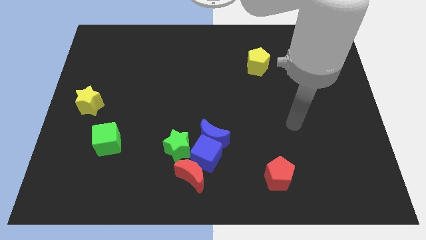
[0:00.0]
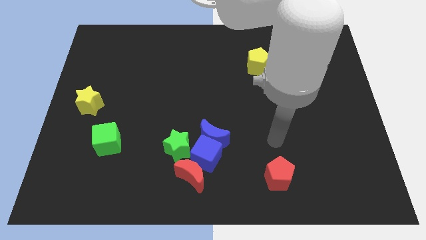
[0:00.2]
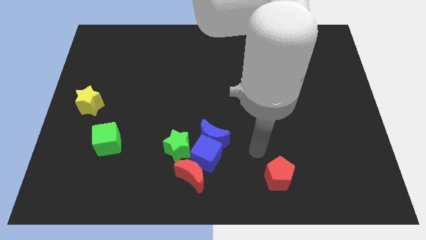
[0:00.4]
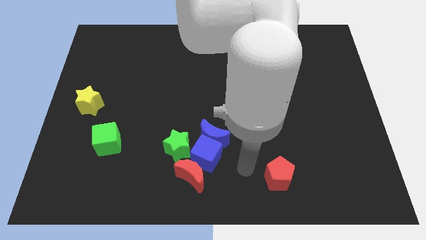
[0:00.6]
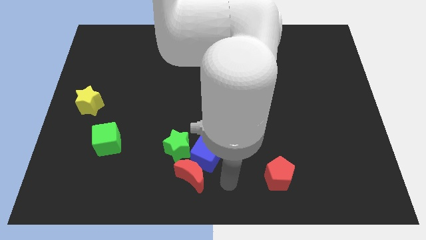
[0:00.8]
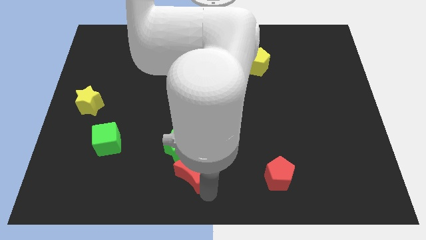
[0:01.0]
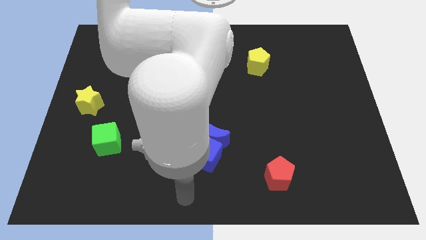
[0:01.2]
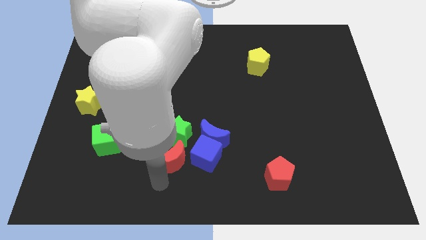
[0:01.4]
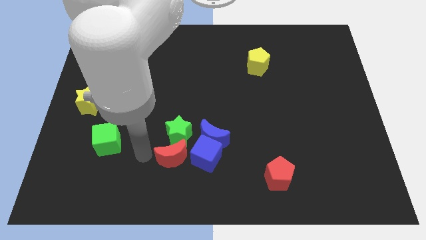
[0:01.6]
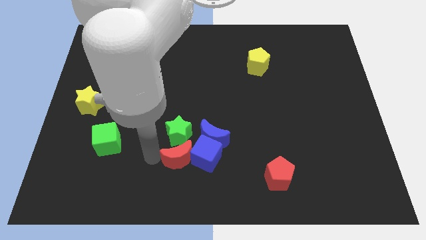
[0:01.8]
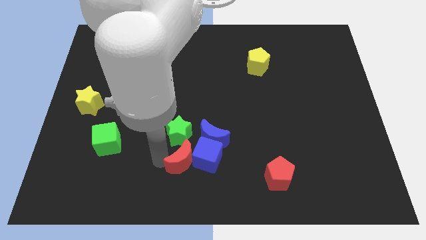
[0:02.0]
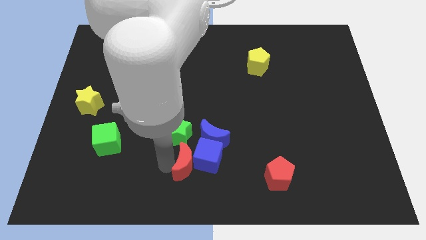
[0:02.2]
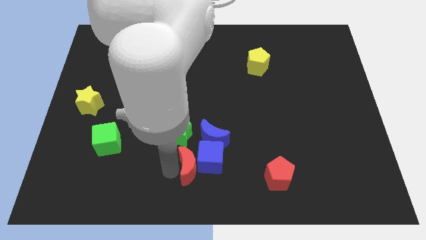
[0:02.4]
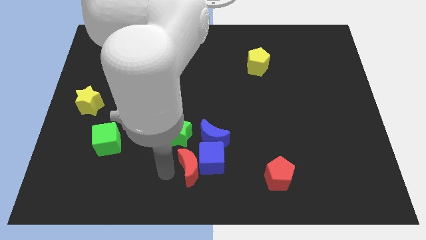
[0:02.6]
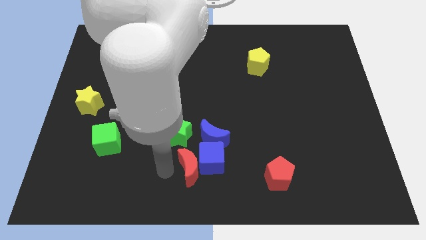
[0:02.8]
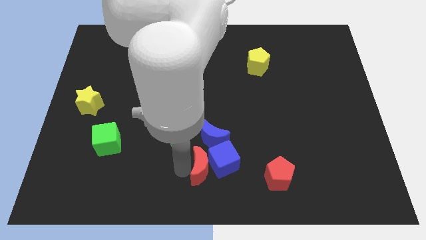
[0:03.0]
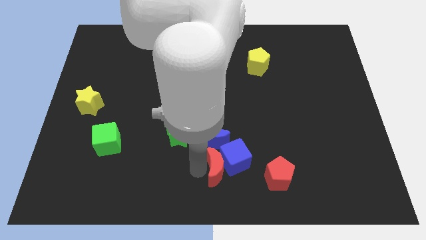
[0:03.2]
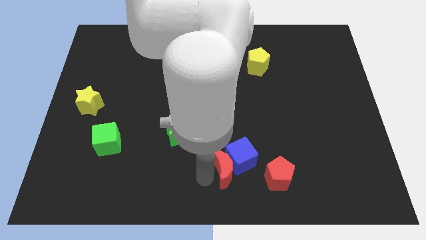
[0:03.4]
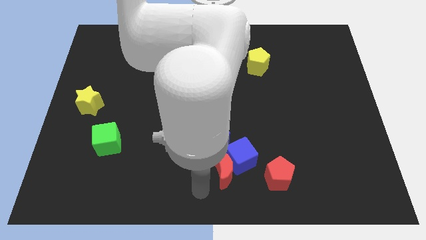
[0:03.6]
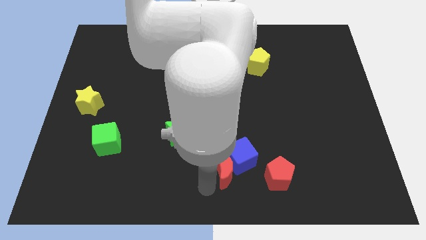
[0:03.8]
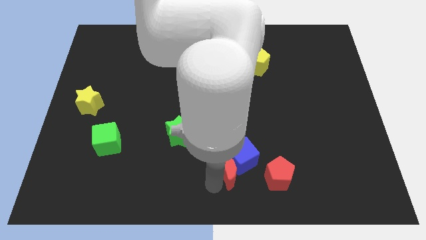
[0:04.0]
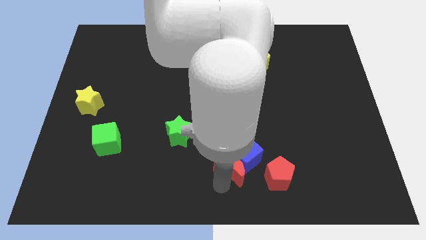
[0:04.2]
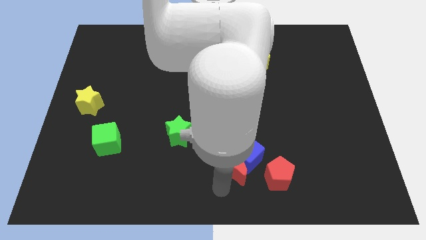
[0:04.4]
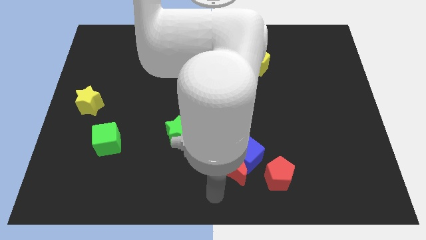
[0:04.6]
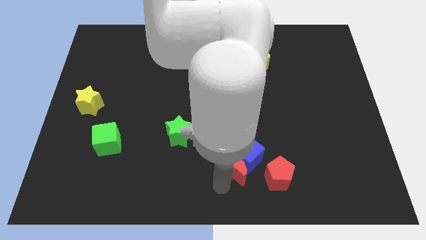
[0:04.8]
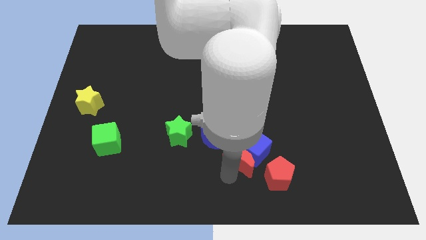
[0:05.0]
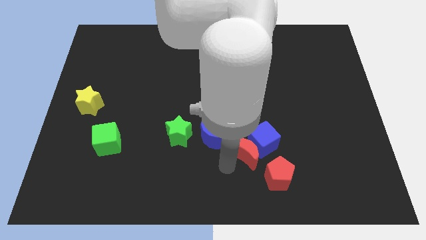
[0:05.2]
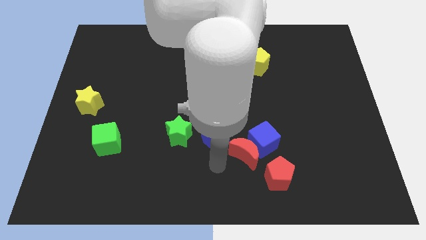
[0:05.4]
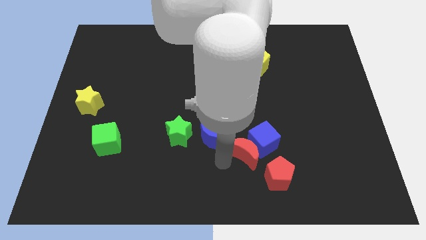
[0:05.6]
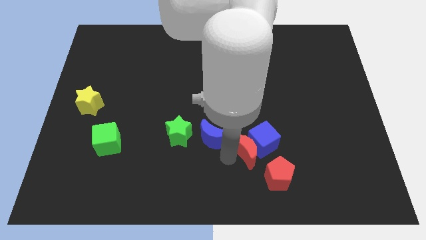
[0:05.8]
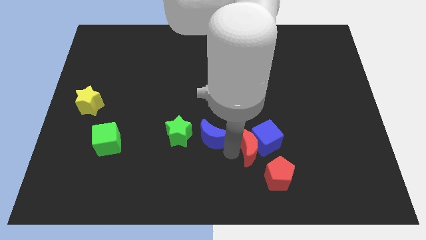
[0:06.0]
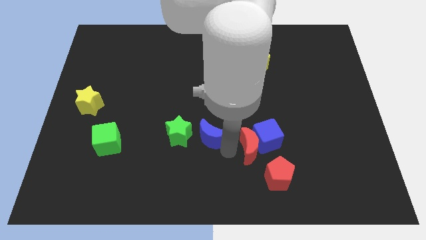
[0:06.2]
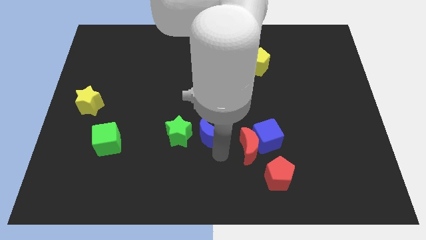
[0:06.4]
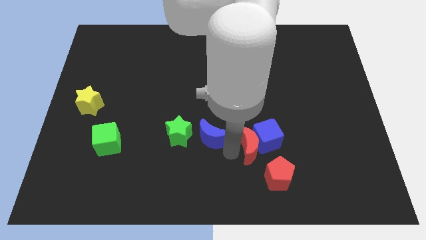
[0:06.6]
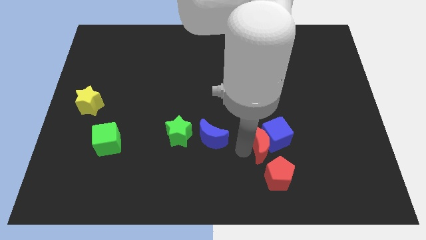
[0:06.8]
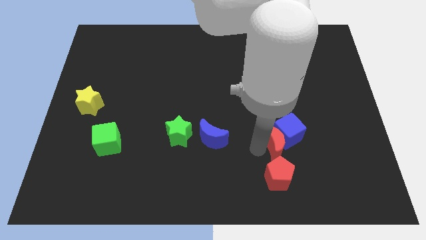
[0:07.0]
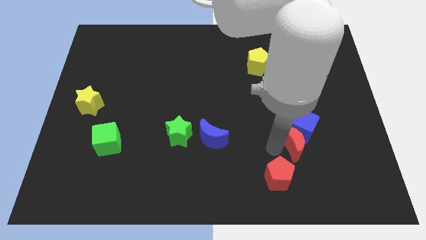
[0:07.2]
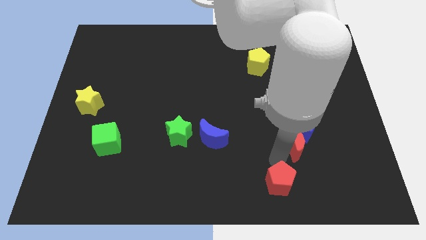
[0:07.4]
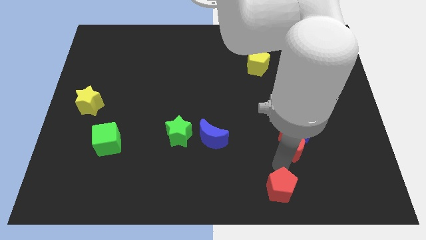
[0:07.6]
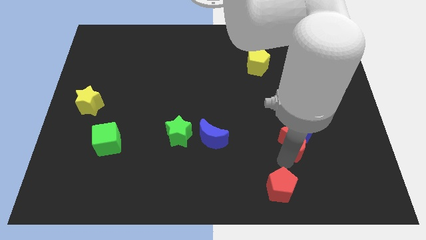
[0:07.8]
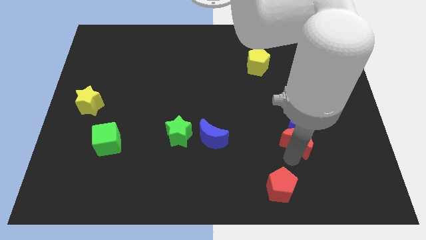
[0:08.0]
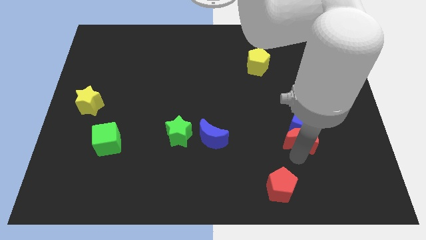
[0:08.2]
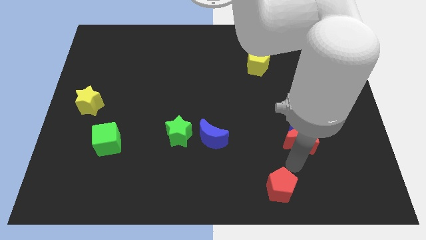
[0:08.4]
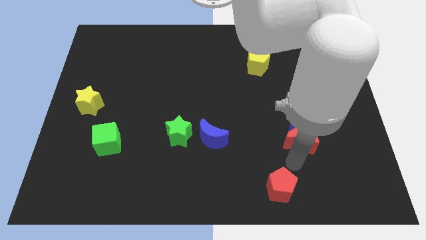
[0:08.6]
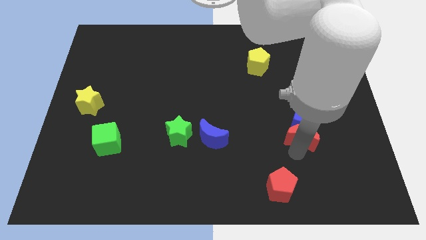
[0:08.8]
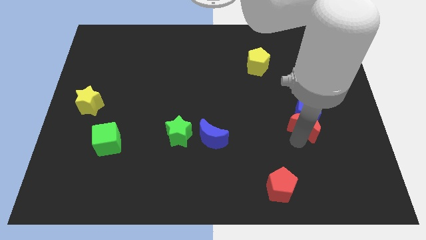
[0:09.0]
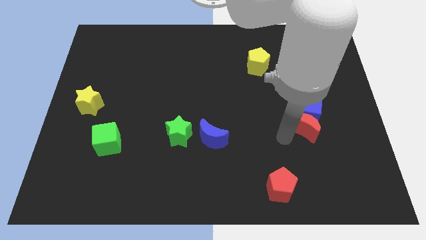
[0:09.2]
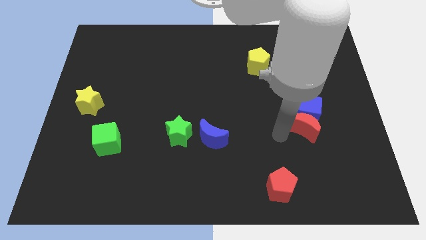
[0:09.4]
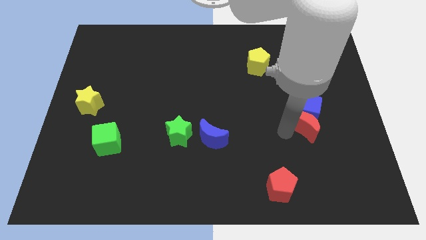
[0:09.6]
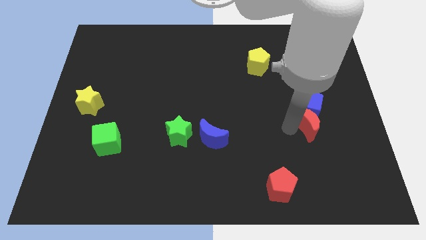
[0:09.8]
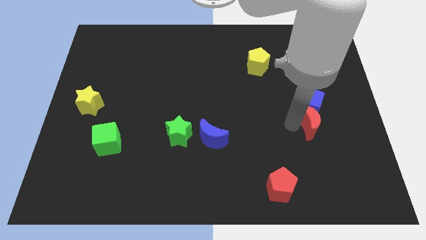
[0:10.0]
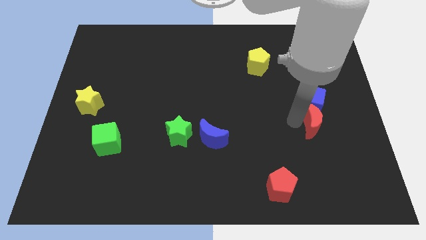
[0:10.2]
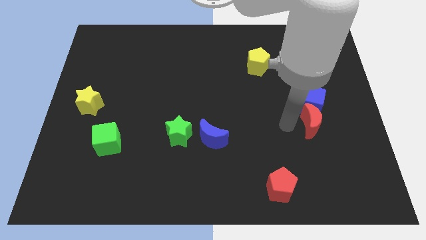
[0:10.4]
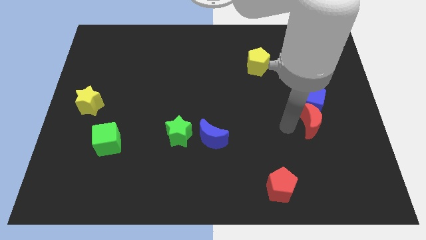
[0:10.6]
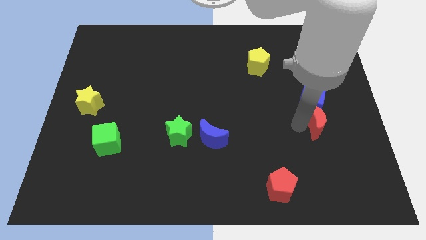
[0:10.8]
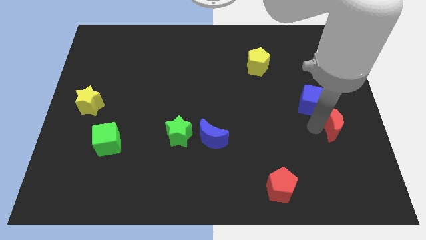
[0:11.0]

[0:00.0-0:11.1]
push the red moon to the right side

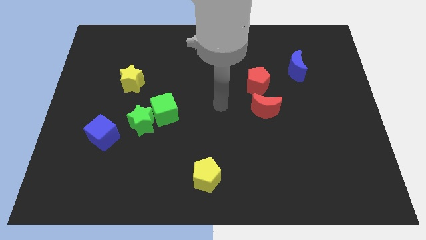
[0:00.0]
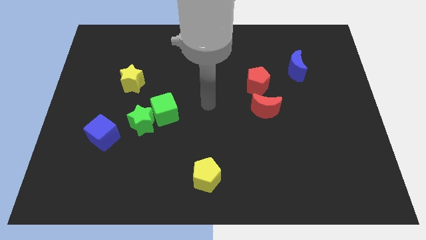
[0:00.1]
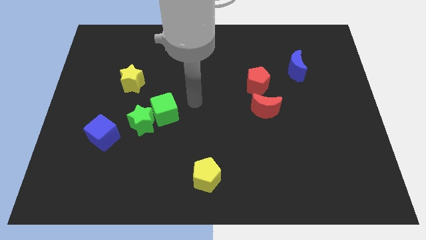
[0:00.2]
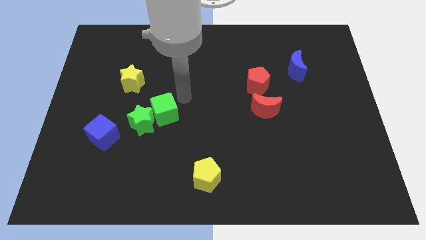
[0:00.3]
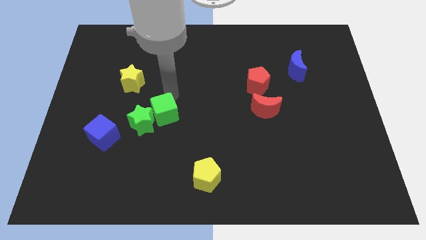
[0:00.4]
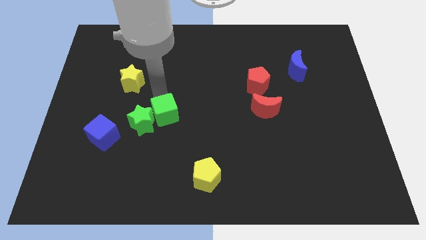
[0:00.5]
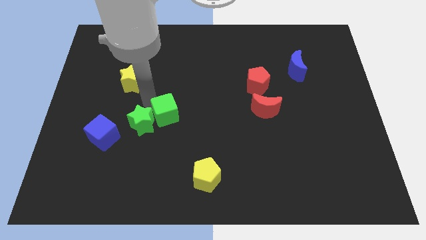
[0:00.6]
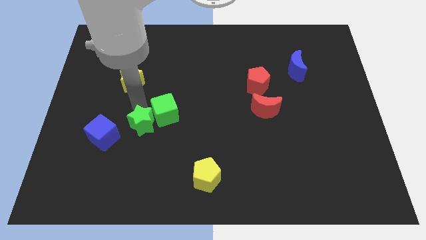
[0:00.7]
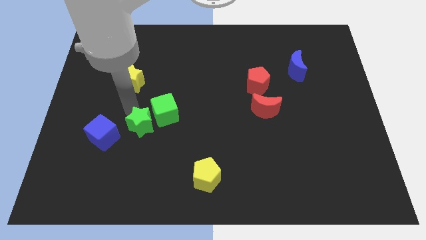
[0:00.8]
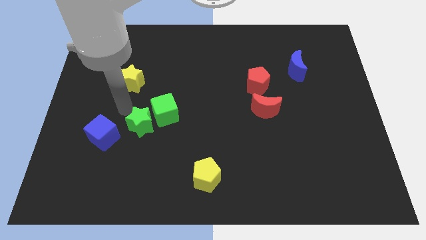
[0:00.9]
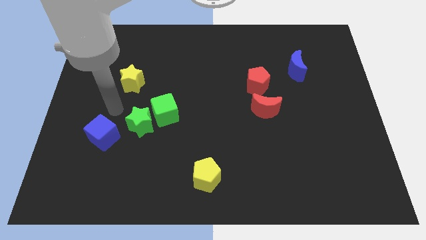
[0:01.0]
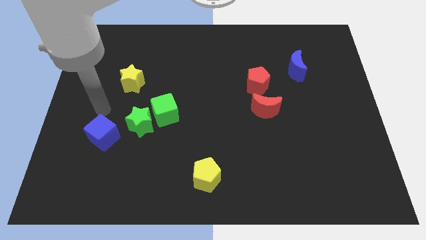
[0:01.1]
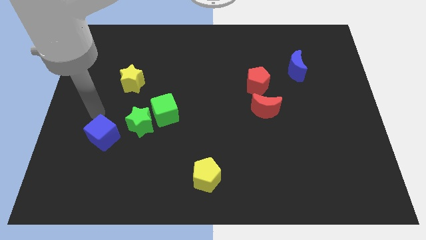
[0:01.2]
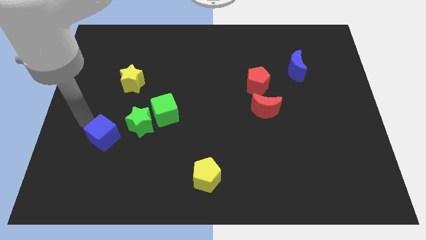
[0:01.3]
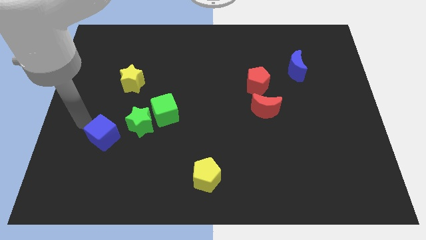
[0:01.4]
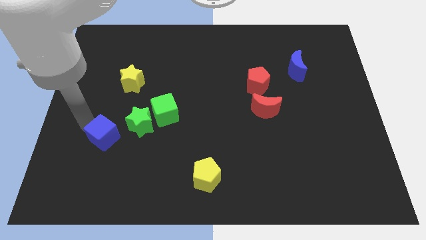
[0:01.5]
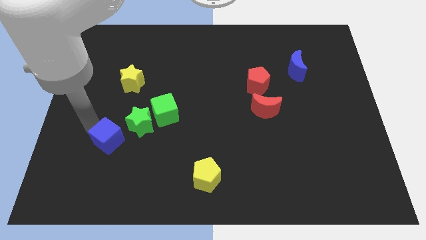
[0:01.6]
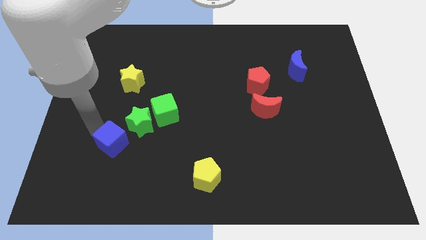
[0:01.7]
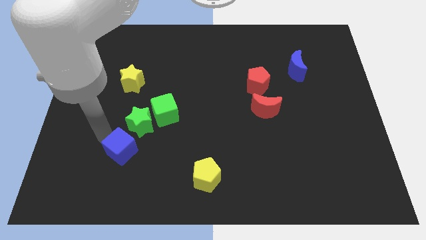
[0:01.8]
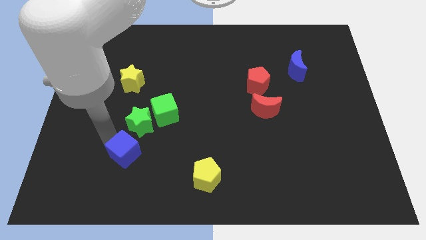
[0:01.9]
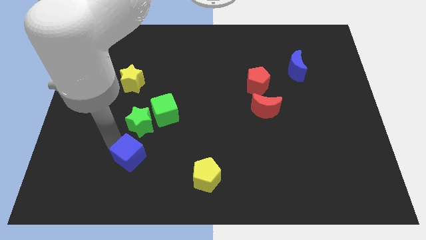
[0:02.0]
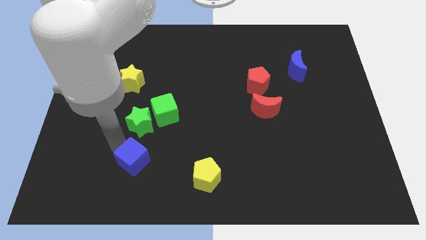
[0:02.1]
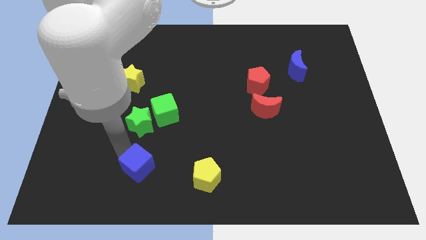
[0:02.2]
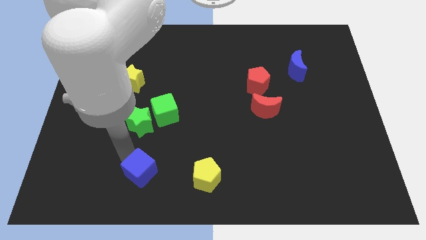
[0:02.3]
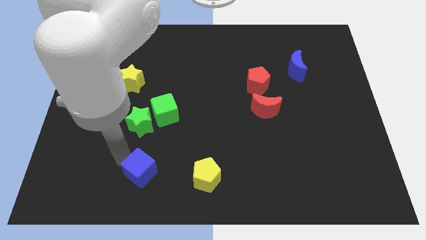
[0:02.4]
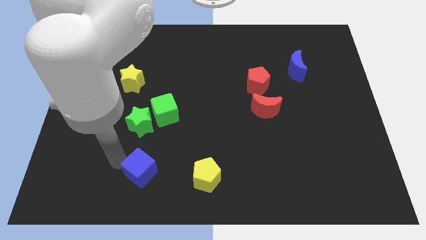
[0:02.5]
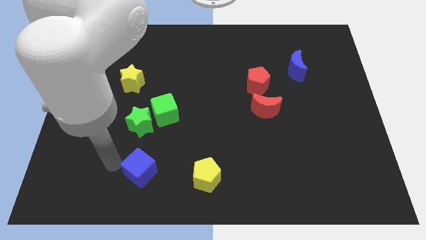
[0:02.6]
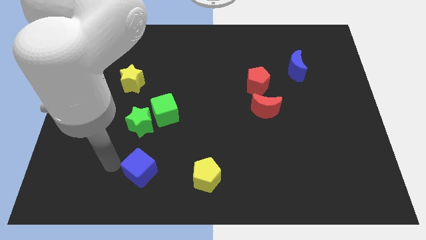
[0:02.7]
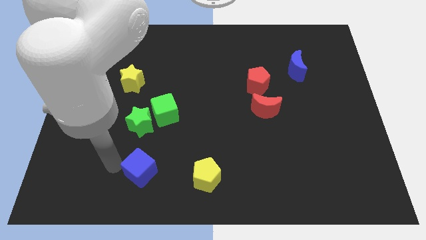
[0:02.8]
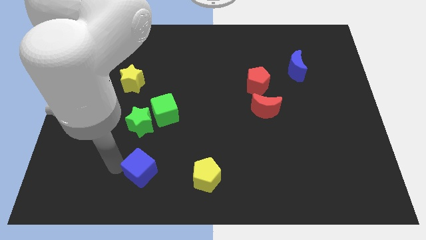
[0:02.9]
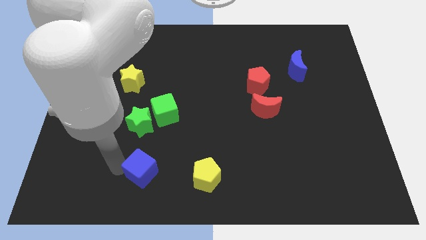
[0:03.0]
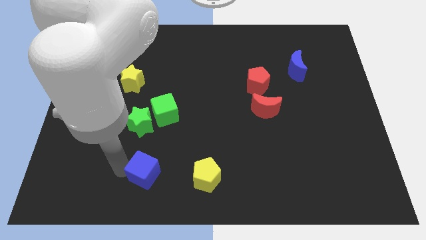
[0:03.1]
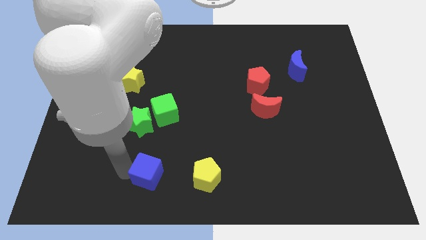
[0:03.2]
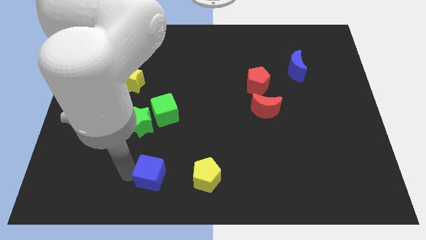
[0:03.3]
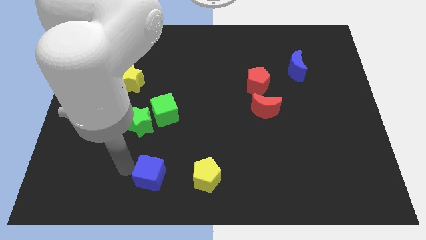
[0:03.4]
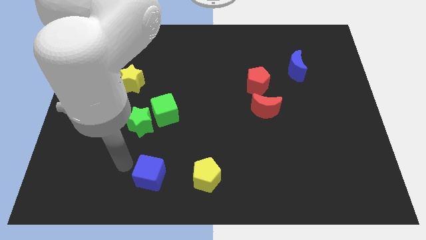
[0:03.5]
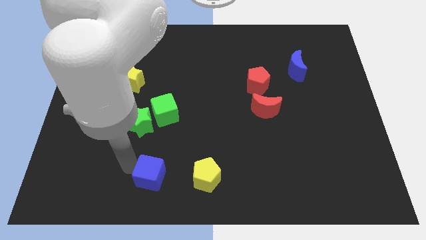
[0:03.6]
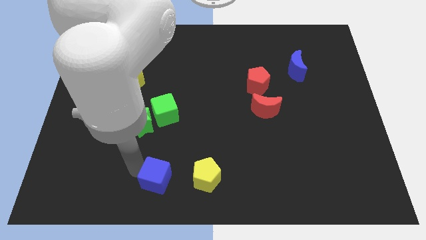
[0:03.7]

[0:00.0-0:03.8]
put the blue cube to the bottom
